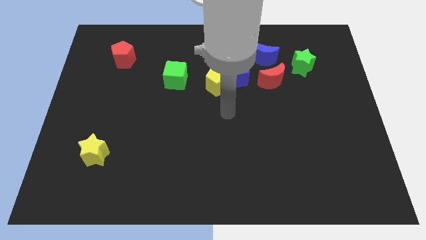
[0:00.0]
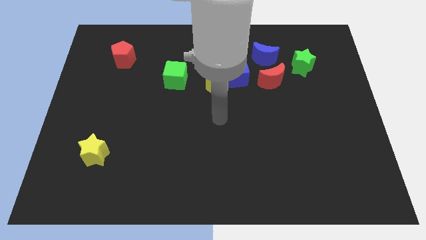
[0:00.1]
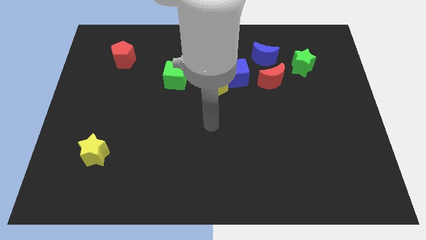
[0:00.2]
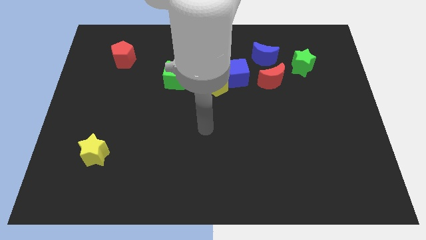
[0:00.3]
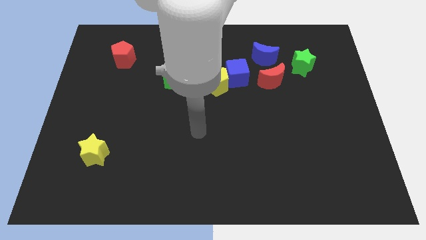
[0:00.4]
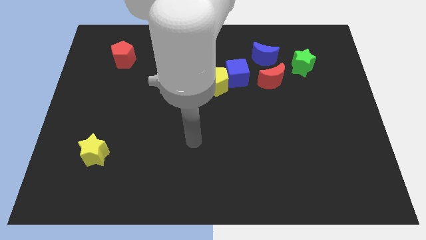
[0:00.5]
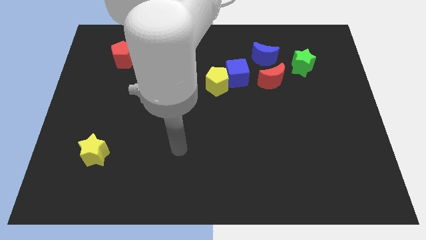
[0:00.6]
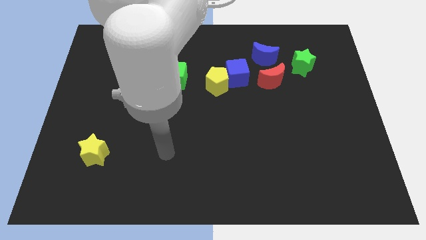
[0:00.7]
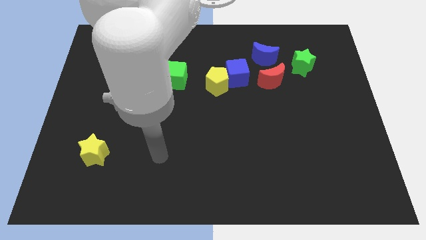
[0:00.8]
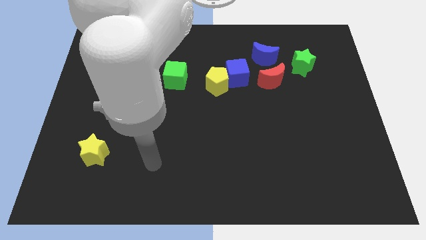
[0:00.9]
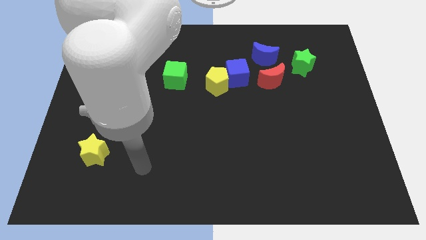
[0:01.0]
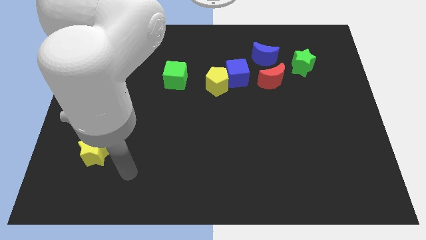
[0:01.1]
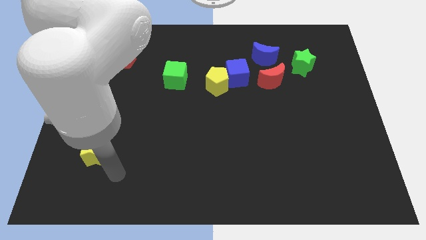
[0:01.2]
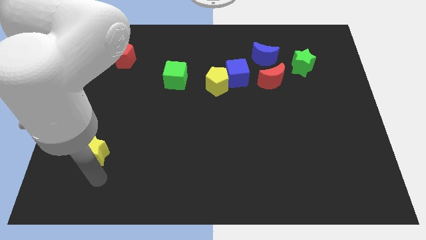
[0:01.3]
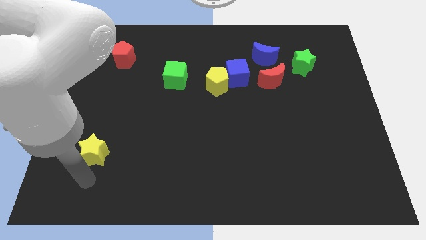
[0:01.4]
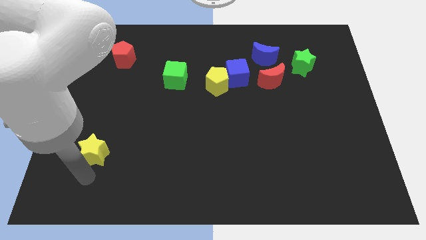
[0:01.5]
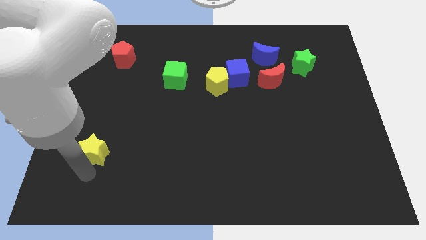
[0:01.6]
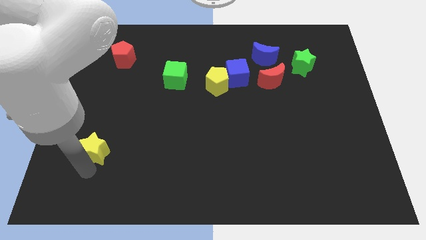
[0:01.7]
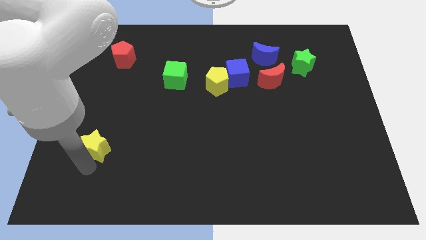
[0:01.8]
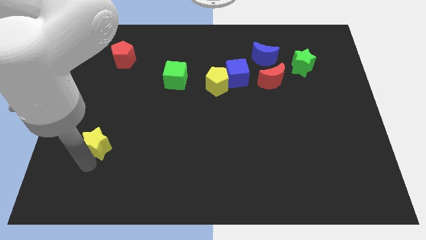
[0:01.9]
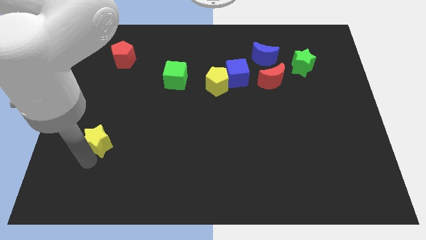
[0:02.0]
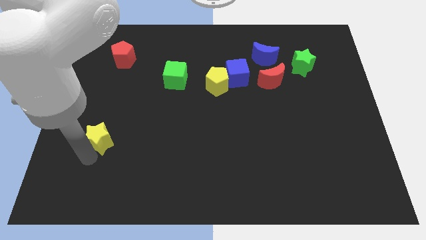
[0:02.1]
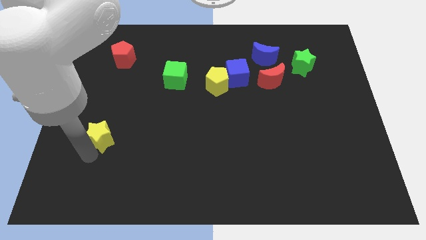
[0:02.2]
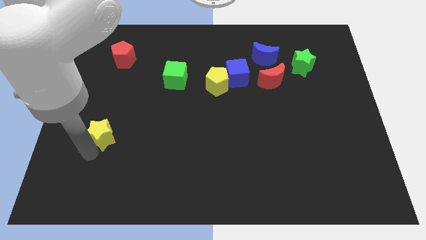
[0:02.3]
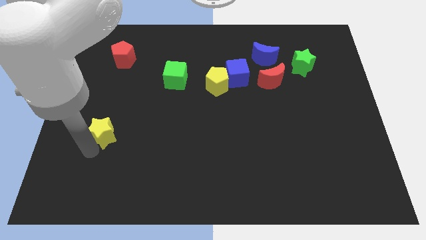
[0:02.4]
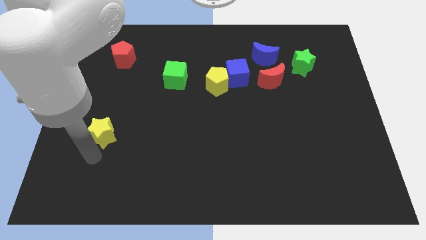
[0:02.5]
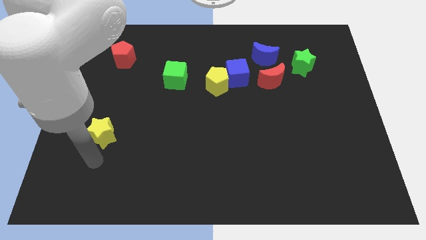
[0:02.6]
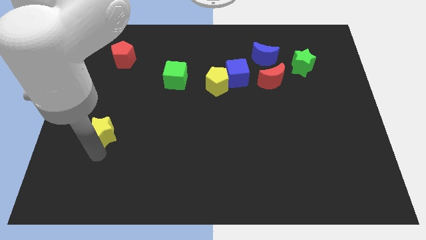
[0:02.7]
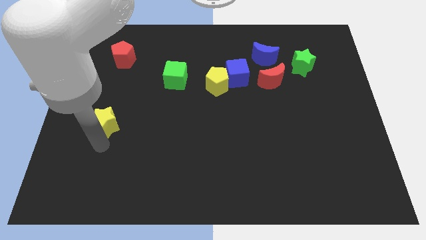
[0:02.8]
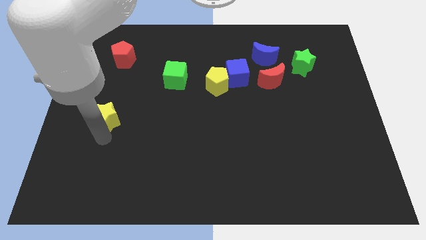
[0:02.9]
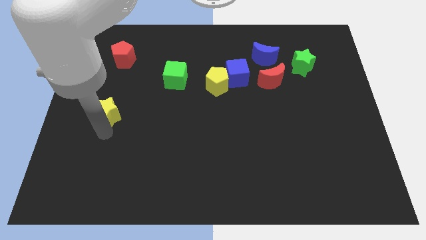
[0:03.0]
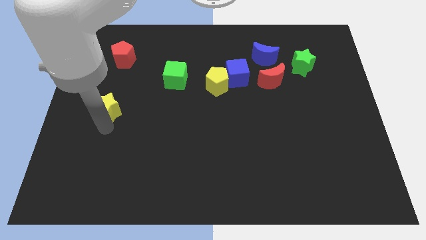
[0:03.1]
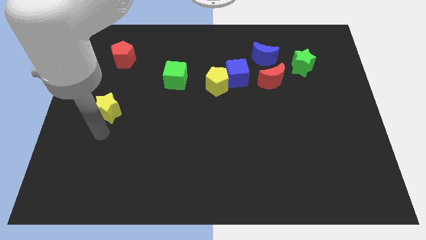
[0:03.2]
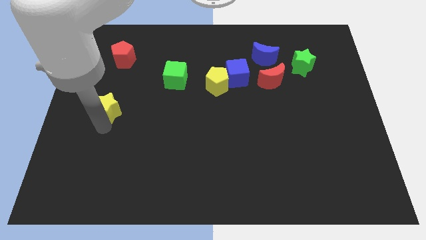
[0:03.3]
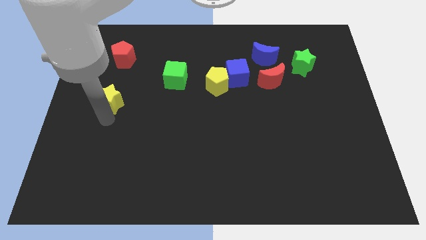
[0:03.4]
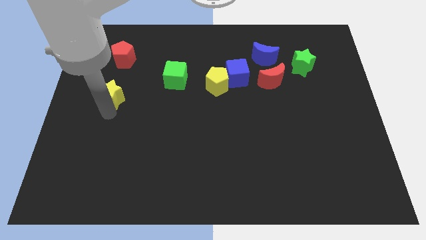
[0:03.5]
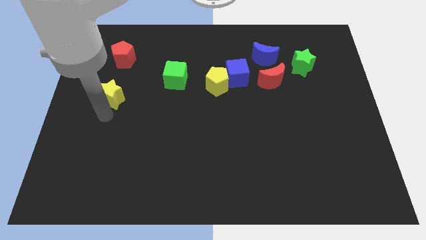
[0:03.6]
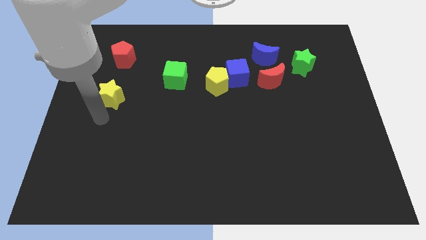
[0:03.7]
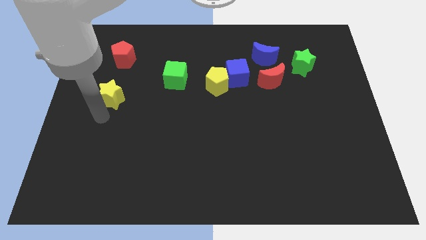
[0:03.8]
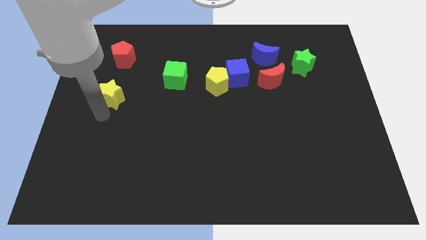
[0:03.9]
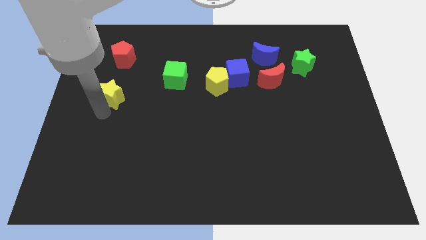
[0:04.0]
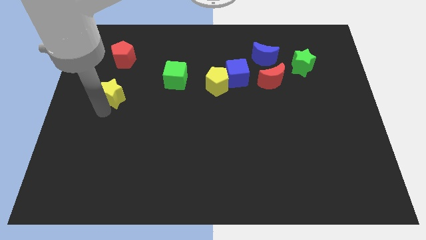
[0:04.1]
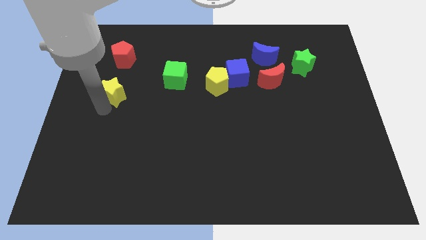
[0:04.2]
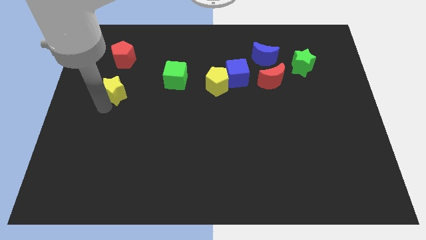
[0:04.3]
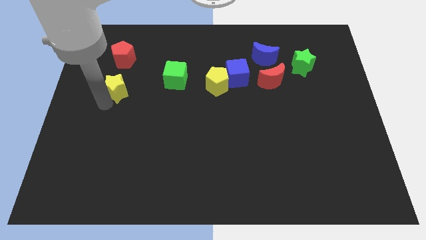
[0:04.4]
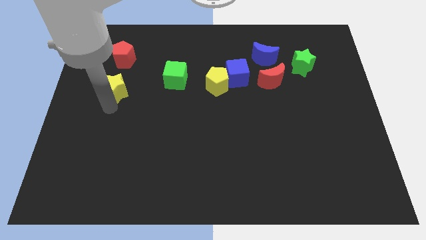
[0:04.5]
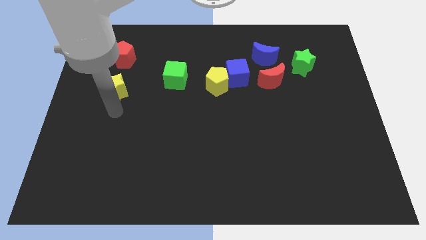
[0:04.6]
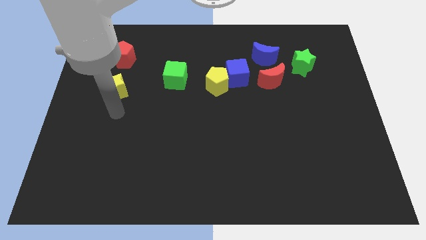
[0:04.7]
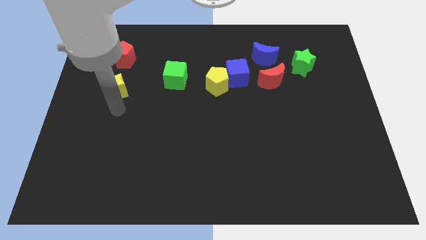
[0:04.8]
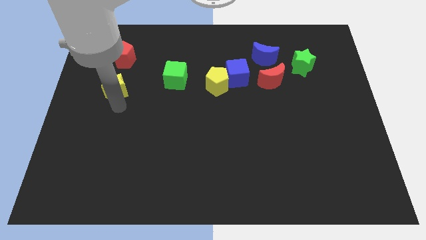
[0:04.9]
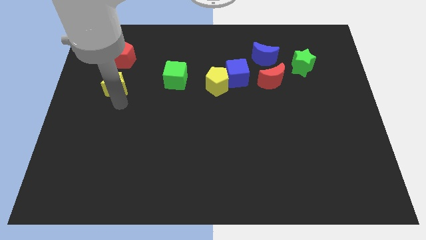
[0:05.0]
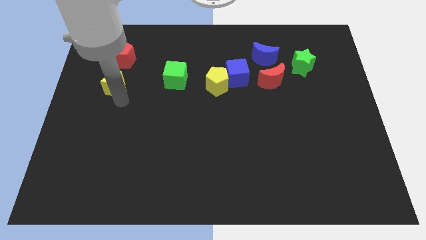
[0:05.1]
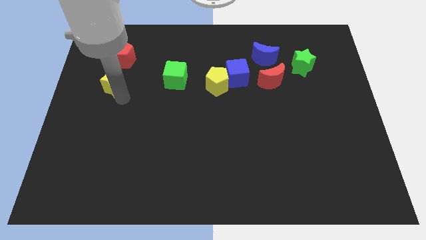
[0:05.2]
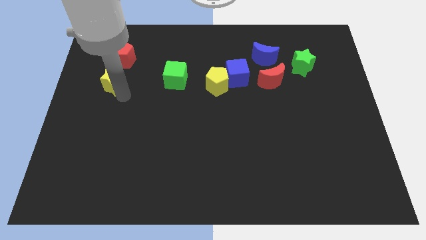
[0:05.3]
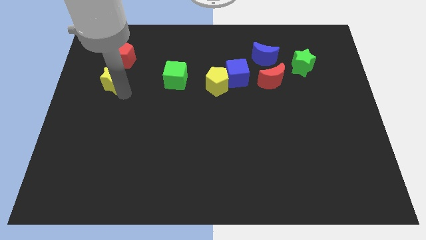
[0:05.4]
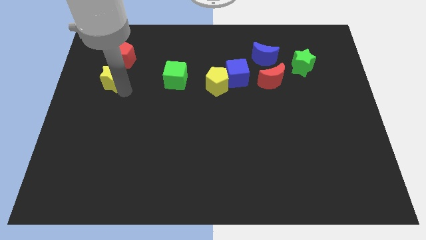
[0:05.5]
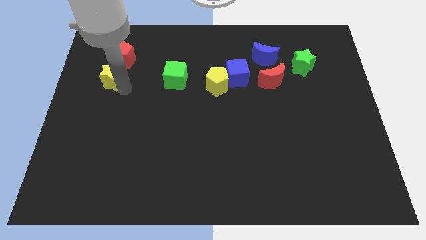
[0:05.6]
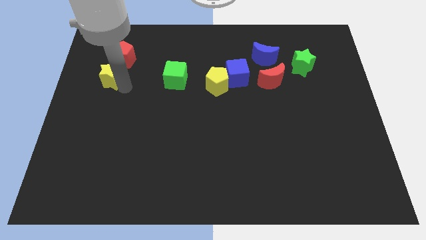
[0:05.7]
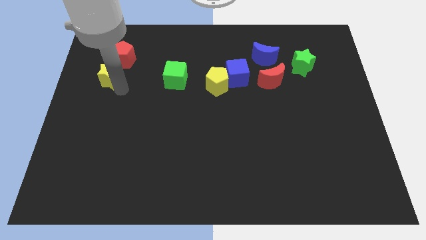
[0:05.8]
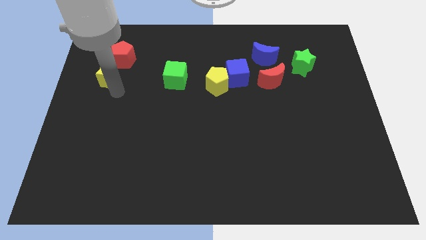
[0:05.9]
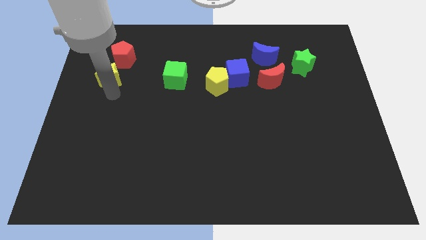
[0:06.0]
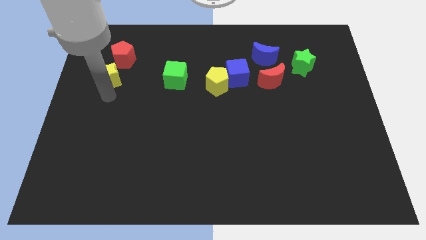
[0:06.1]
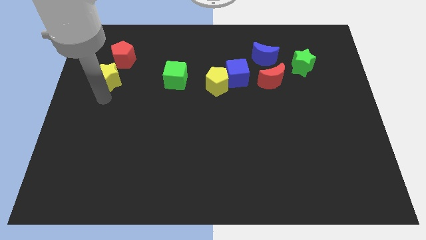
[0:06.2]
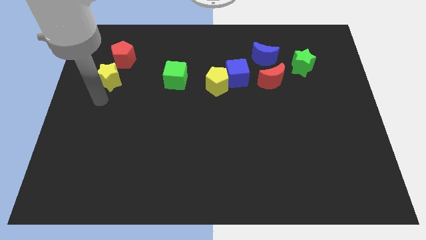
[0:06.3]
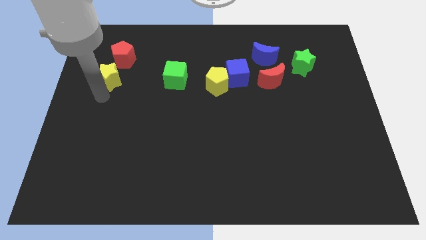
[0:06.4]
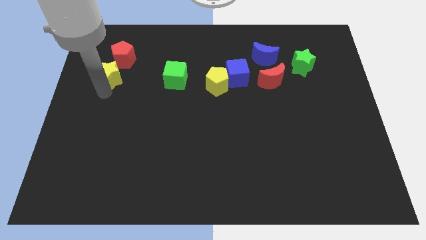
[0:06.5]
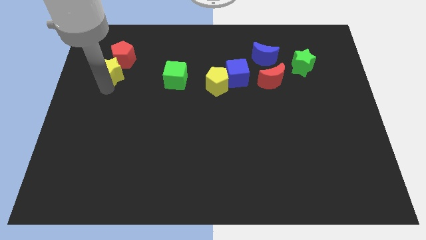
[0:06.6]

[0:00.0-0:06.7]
slide the yellow star towards the red pentagon

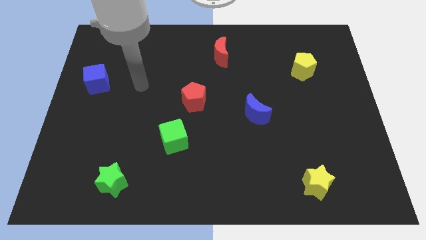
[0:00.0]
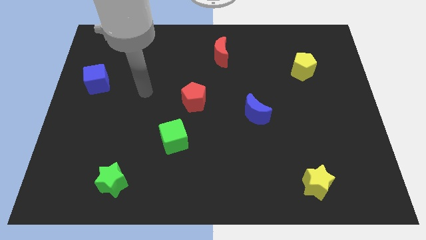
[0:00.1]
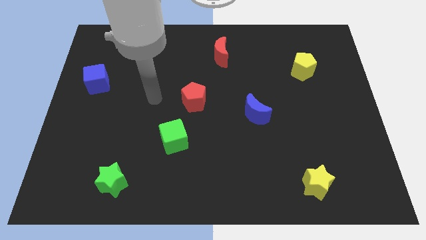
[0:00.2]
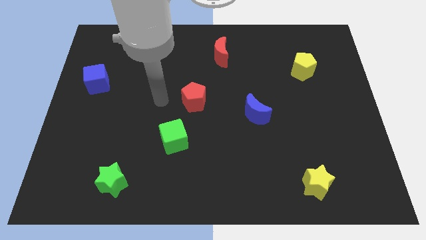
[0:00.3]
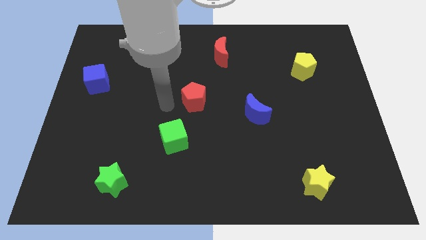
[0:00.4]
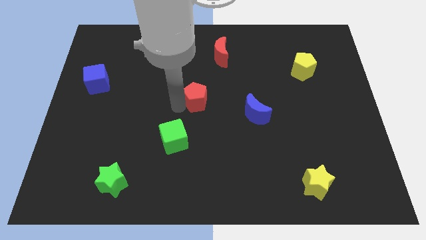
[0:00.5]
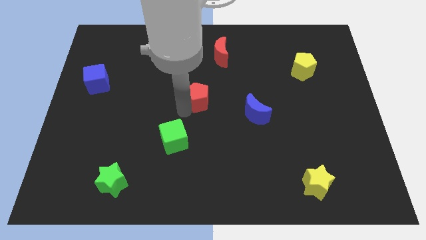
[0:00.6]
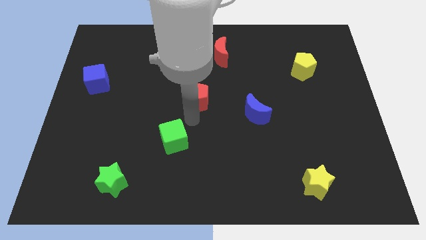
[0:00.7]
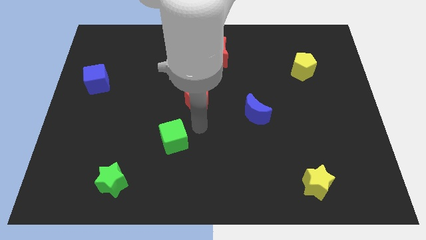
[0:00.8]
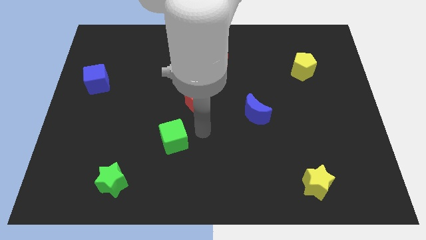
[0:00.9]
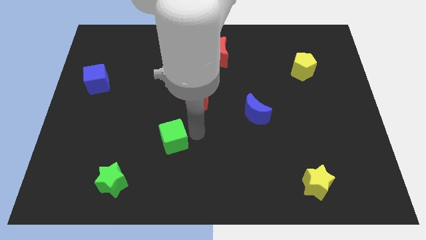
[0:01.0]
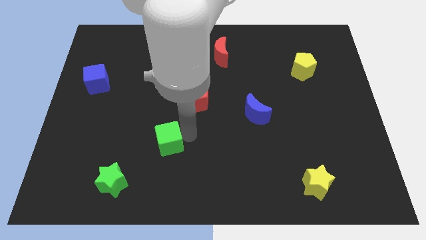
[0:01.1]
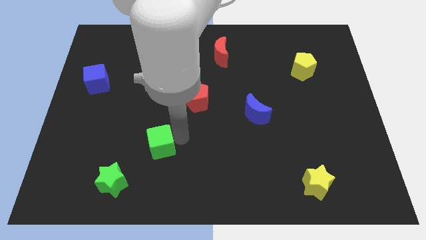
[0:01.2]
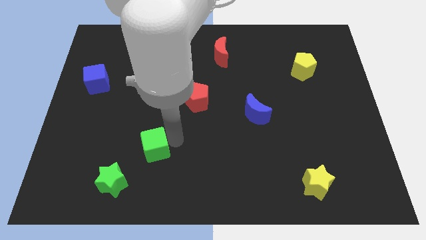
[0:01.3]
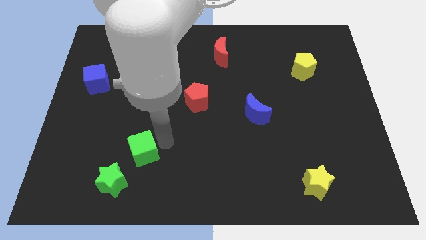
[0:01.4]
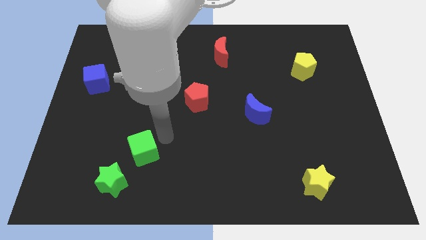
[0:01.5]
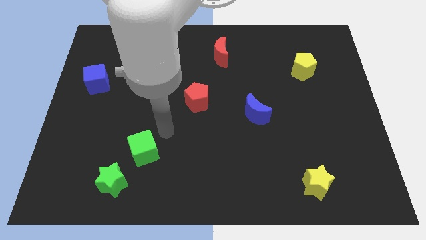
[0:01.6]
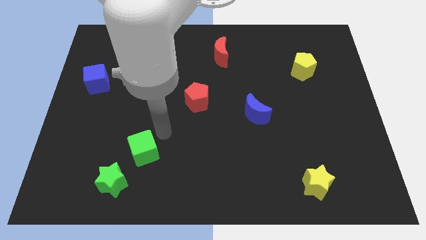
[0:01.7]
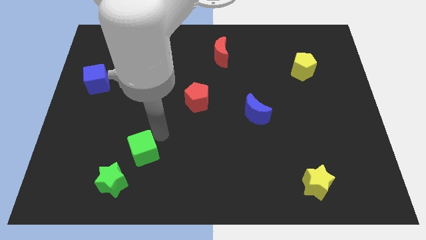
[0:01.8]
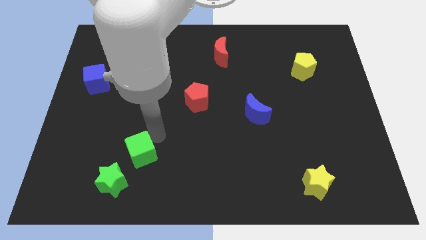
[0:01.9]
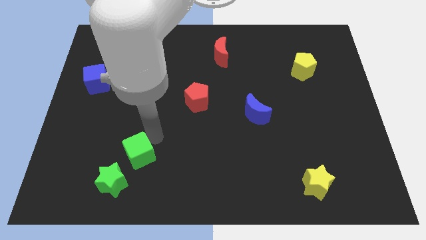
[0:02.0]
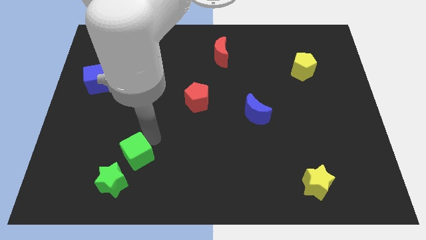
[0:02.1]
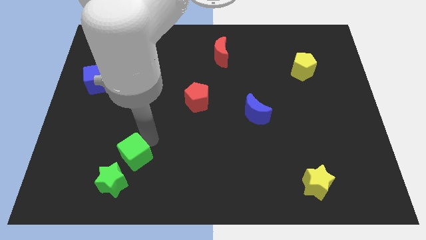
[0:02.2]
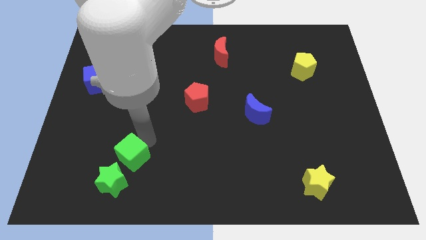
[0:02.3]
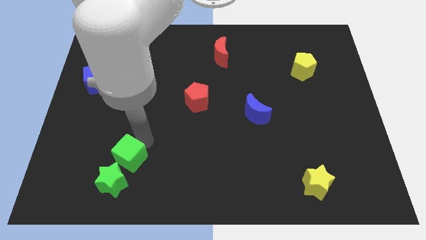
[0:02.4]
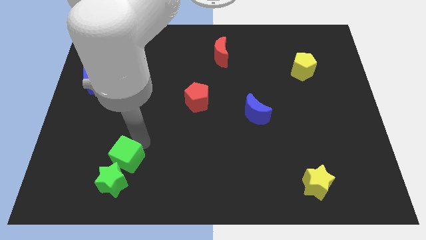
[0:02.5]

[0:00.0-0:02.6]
put the green cube to the green star
